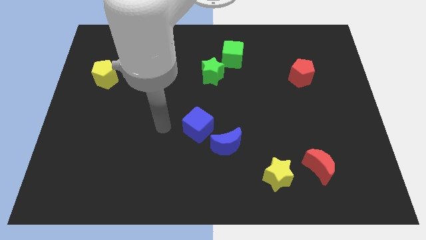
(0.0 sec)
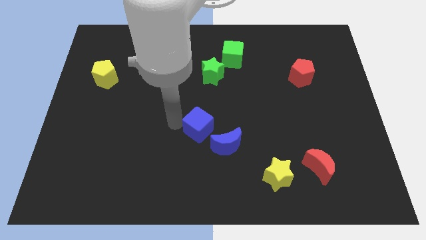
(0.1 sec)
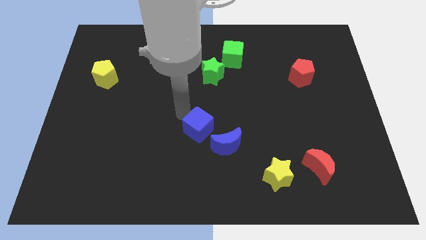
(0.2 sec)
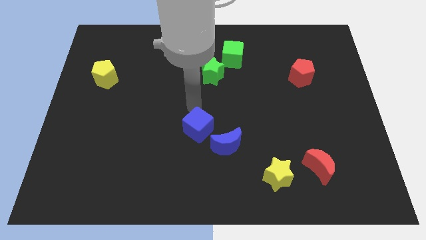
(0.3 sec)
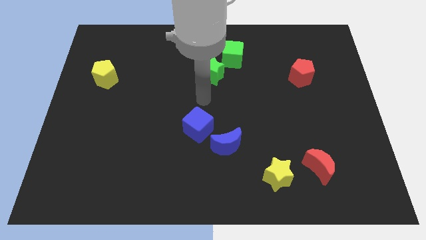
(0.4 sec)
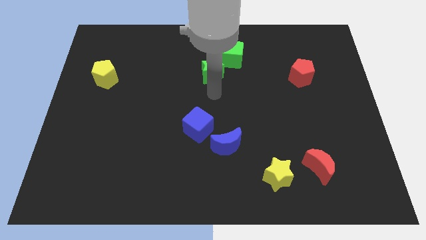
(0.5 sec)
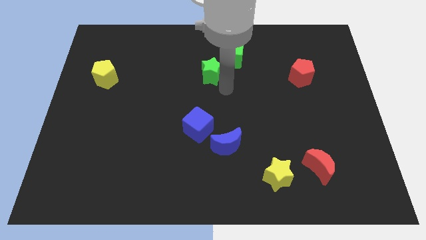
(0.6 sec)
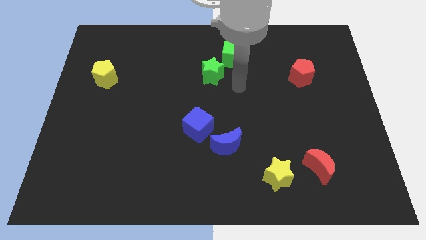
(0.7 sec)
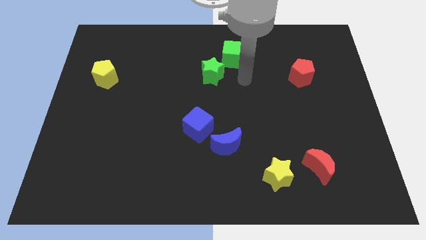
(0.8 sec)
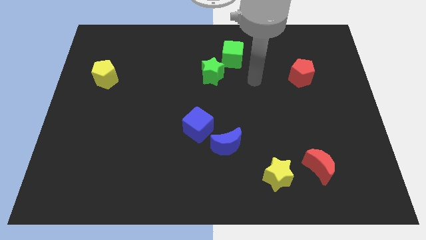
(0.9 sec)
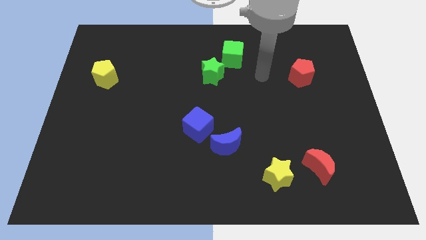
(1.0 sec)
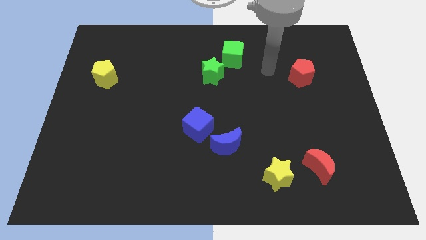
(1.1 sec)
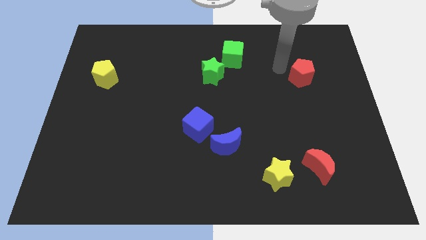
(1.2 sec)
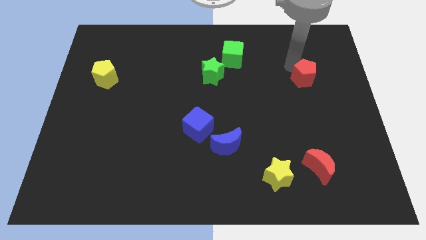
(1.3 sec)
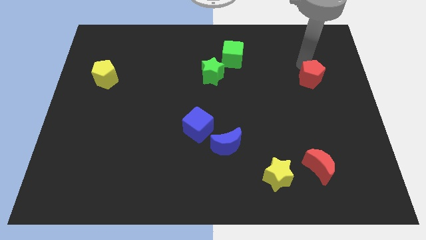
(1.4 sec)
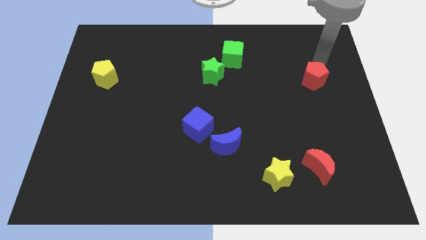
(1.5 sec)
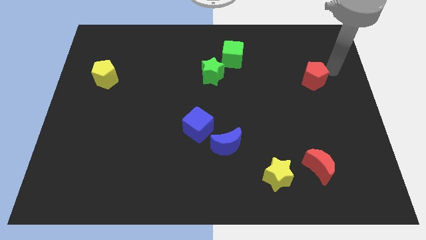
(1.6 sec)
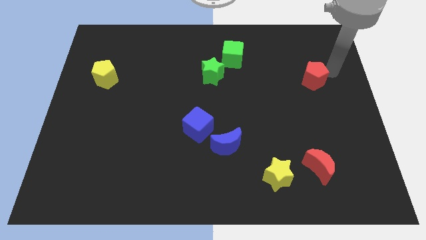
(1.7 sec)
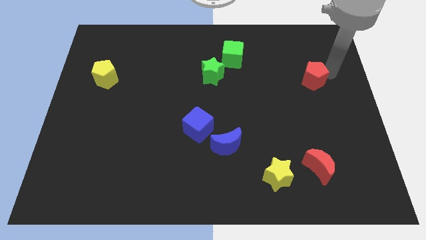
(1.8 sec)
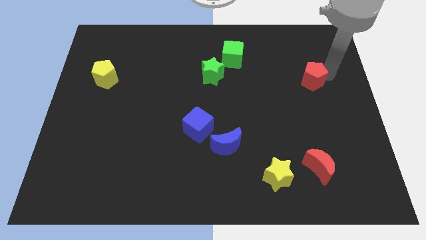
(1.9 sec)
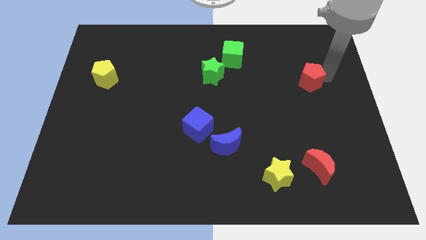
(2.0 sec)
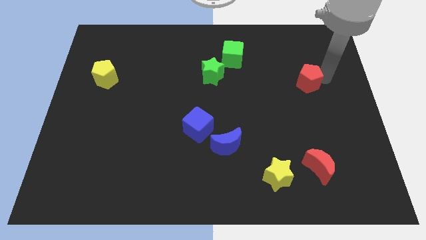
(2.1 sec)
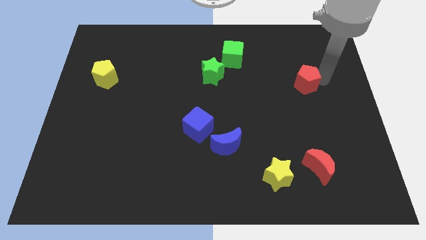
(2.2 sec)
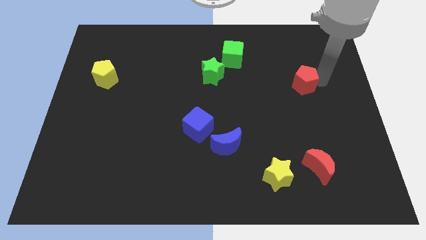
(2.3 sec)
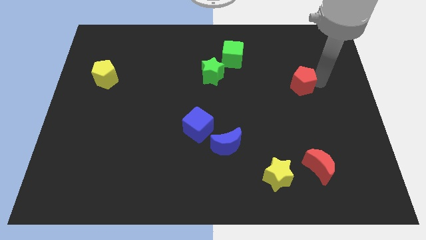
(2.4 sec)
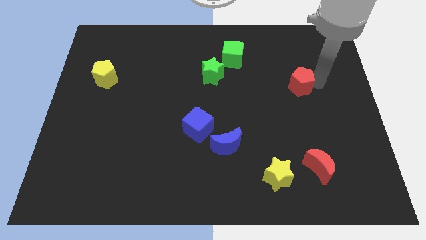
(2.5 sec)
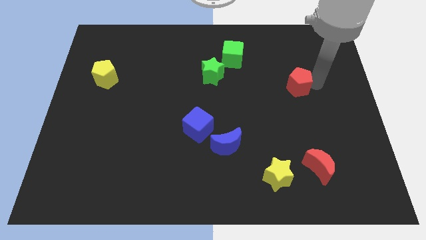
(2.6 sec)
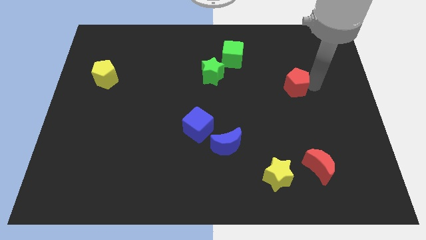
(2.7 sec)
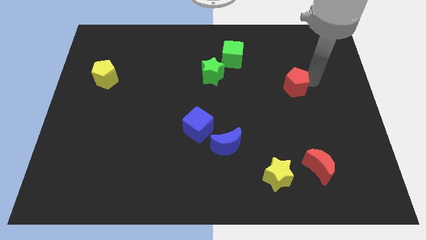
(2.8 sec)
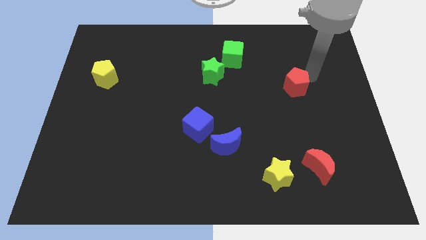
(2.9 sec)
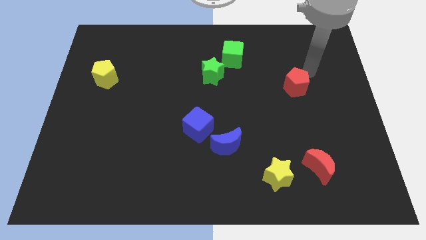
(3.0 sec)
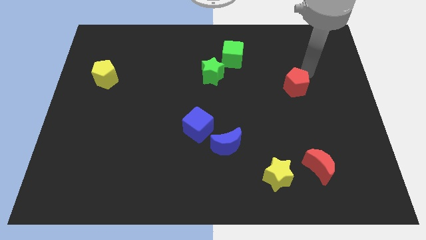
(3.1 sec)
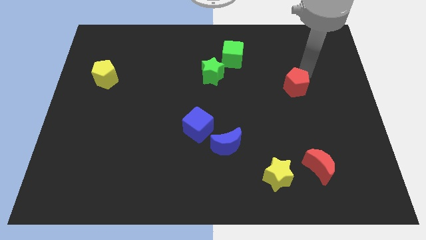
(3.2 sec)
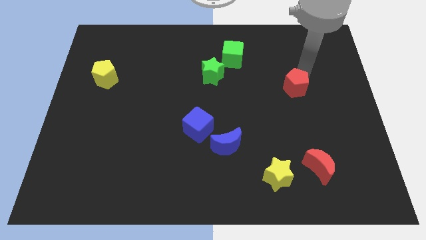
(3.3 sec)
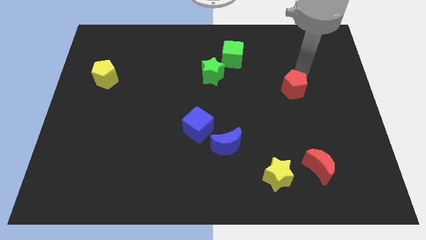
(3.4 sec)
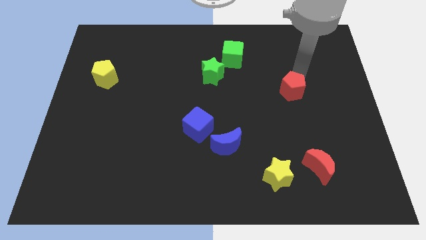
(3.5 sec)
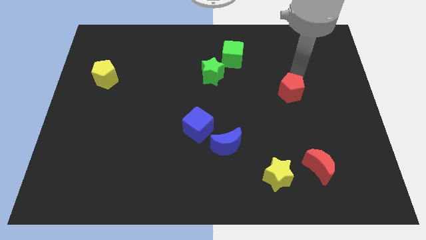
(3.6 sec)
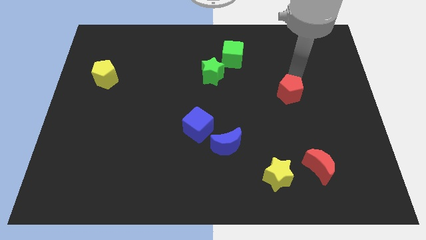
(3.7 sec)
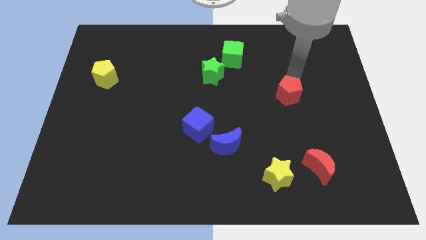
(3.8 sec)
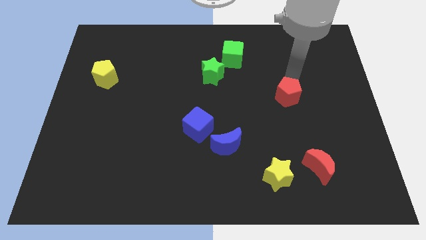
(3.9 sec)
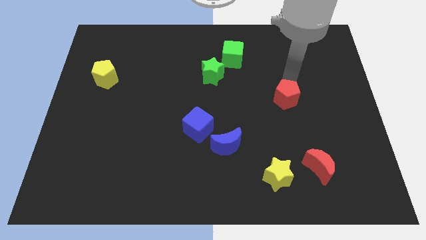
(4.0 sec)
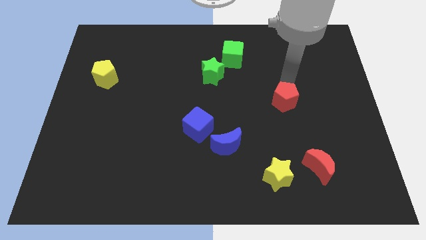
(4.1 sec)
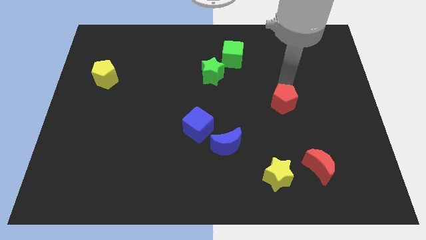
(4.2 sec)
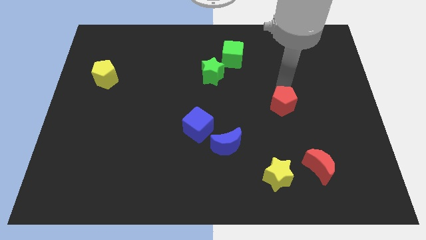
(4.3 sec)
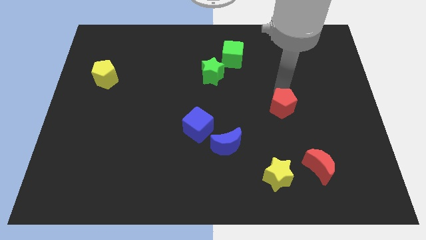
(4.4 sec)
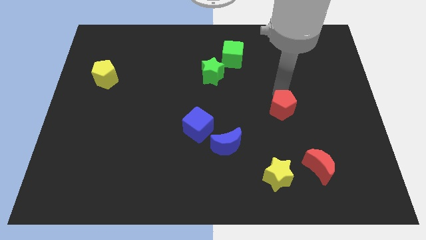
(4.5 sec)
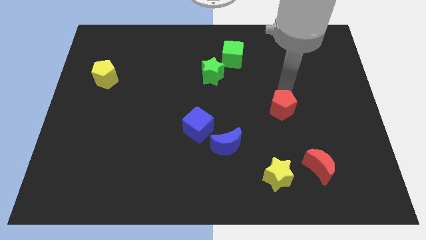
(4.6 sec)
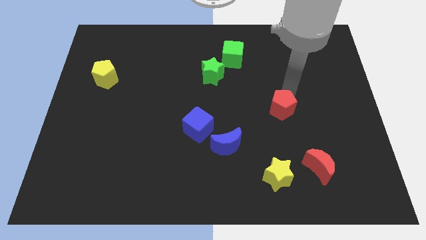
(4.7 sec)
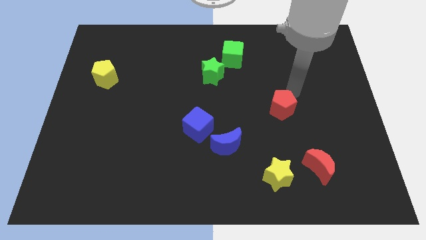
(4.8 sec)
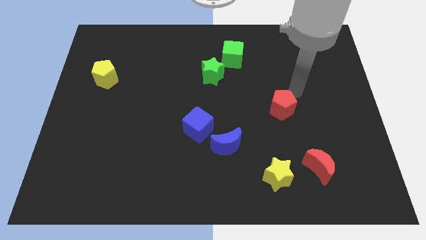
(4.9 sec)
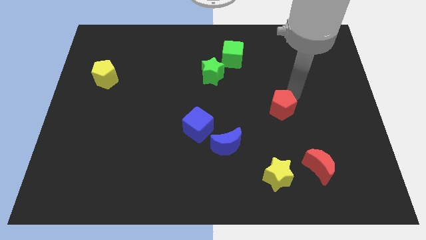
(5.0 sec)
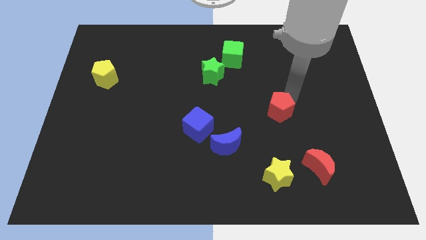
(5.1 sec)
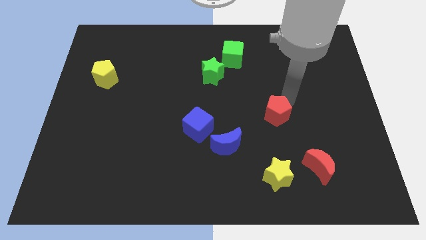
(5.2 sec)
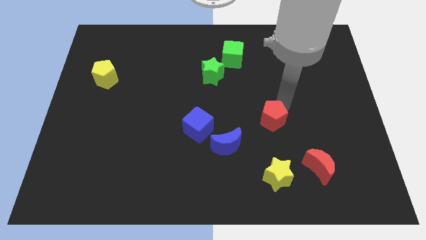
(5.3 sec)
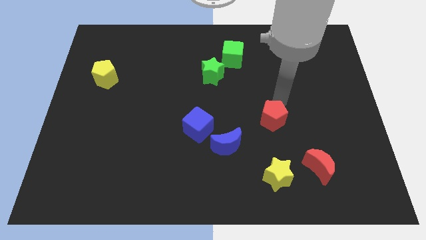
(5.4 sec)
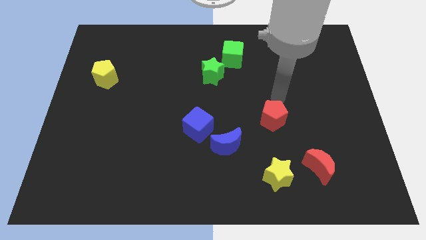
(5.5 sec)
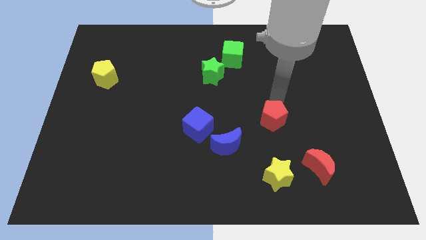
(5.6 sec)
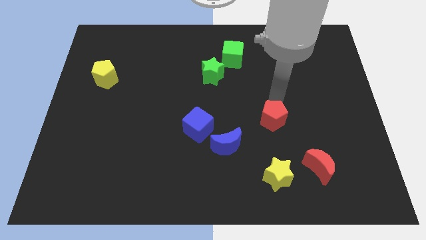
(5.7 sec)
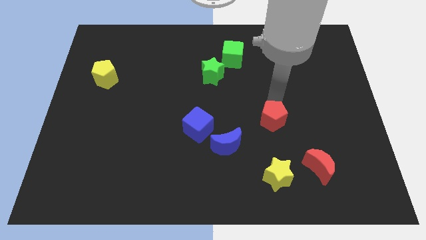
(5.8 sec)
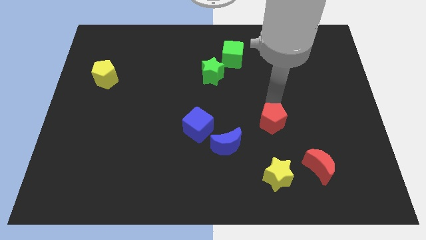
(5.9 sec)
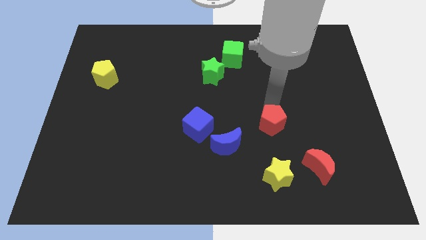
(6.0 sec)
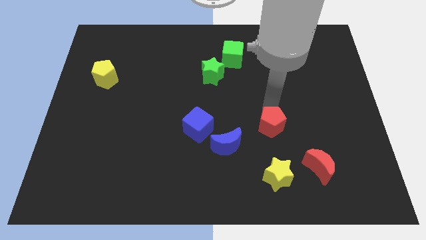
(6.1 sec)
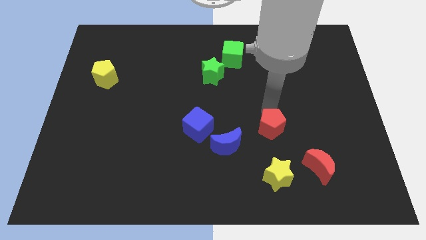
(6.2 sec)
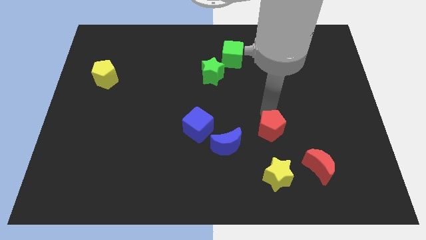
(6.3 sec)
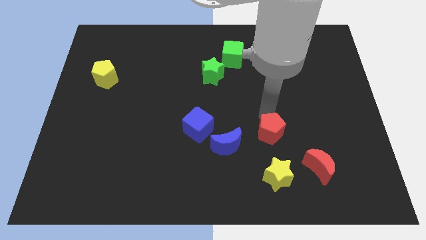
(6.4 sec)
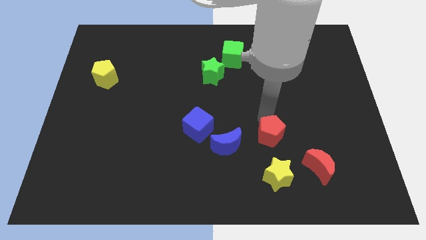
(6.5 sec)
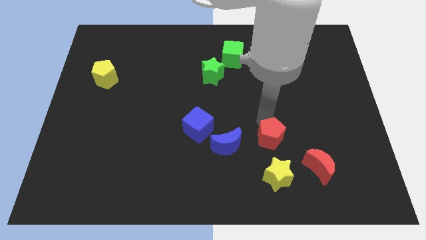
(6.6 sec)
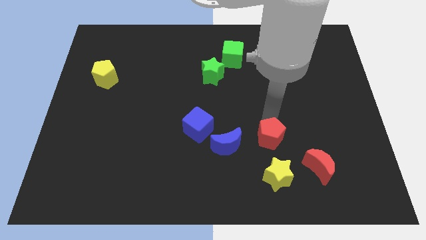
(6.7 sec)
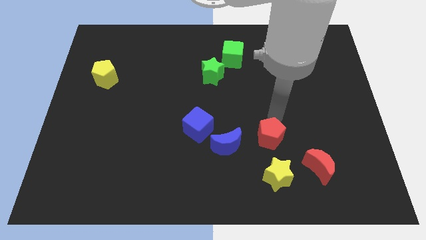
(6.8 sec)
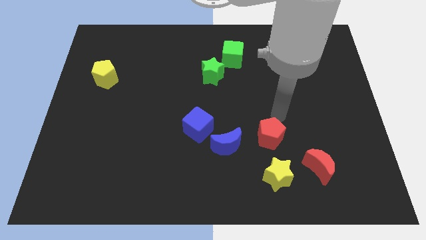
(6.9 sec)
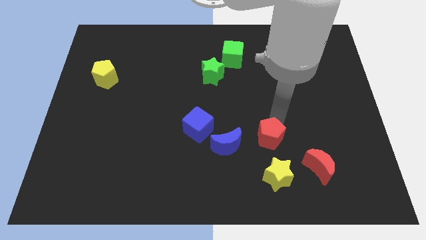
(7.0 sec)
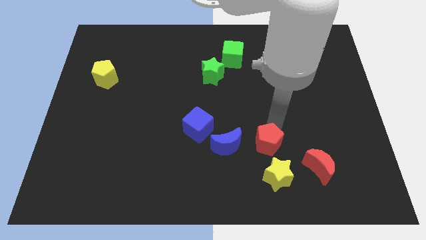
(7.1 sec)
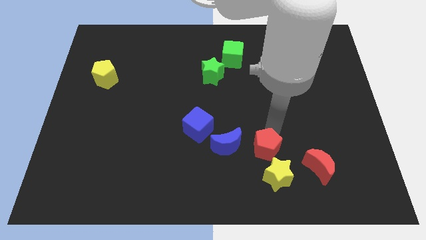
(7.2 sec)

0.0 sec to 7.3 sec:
slide the red pentagon down and left diagonally

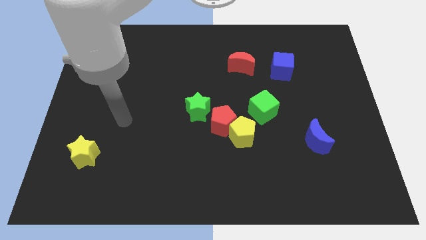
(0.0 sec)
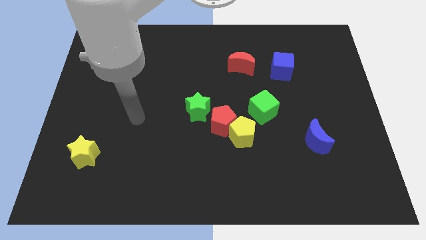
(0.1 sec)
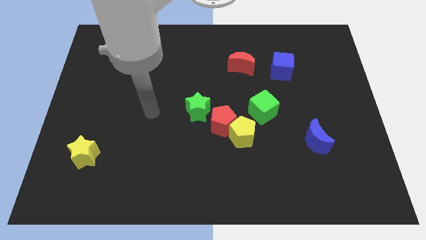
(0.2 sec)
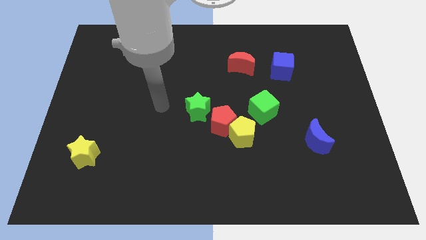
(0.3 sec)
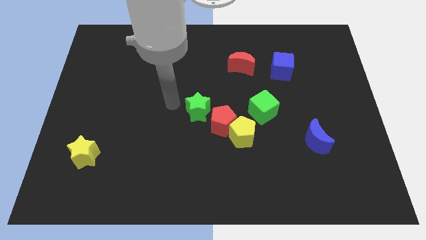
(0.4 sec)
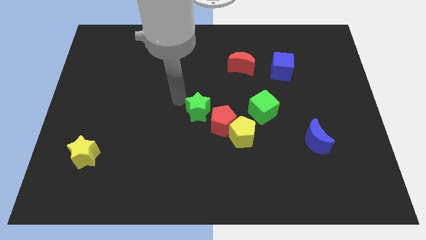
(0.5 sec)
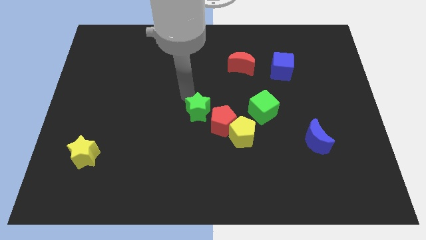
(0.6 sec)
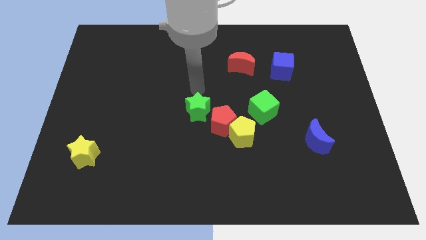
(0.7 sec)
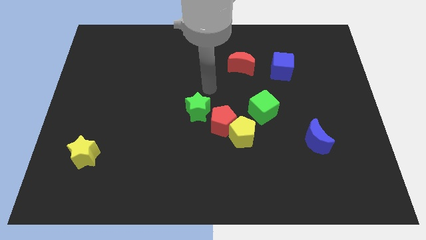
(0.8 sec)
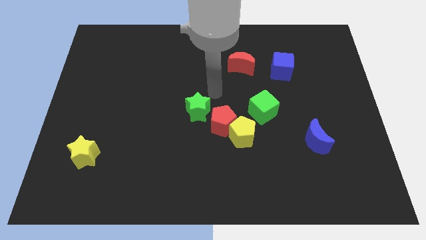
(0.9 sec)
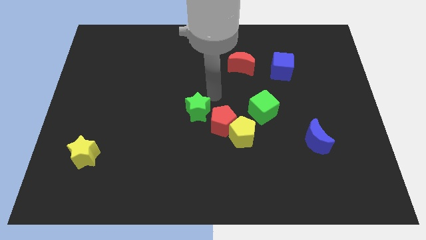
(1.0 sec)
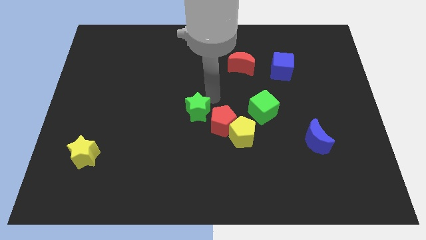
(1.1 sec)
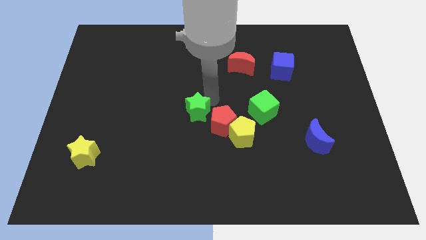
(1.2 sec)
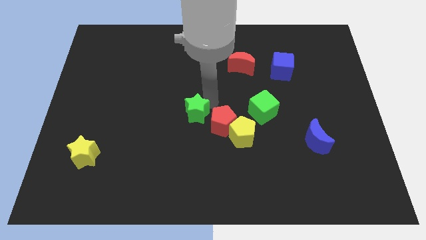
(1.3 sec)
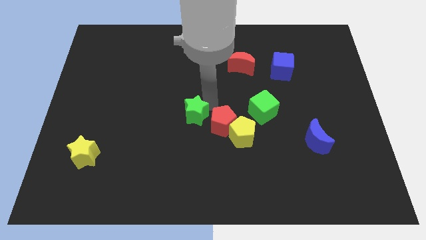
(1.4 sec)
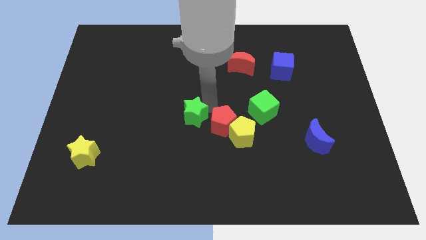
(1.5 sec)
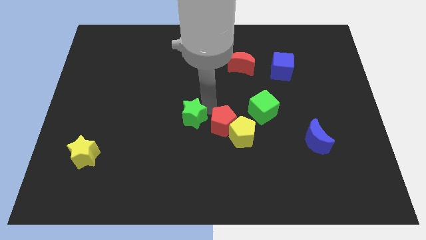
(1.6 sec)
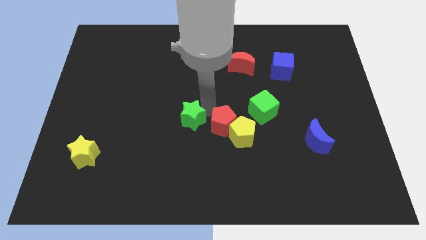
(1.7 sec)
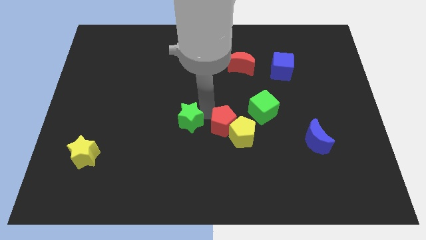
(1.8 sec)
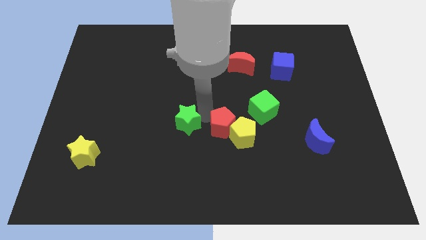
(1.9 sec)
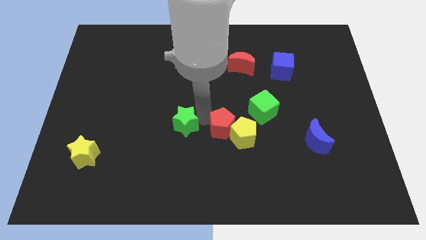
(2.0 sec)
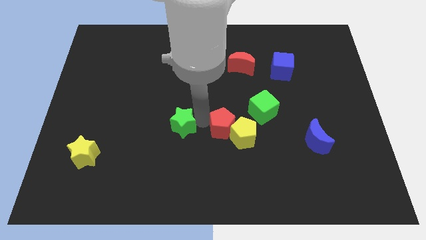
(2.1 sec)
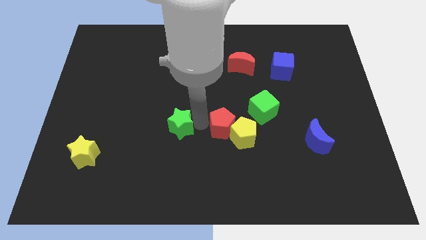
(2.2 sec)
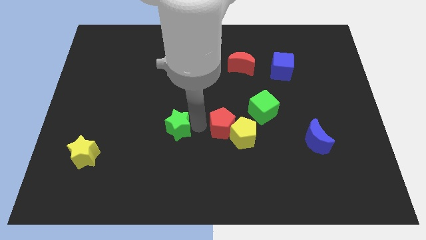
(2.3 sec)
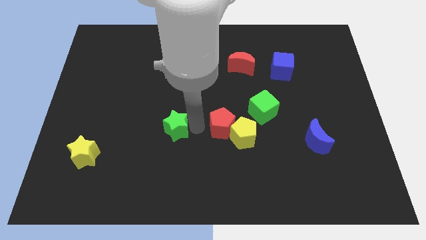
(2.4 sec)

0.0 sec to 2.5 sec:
move the green star somewhat down and to the left diagonally
